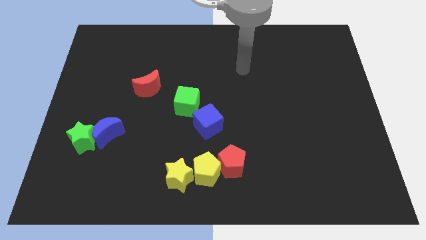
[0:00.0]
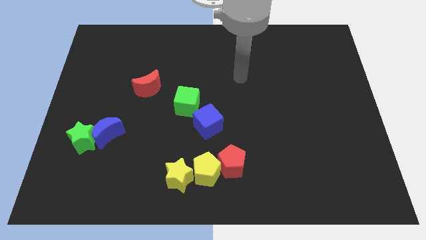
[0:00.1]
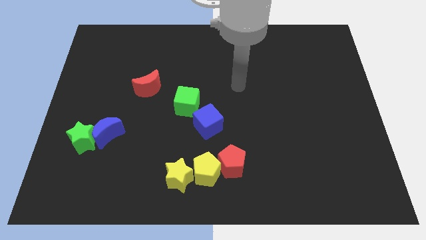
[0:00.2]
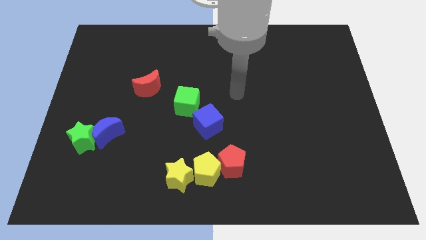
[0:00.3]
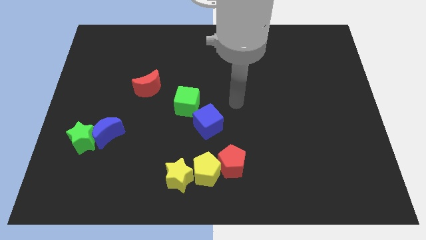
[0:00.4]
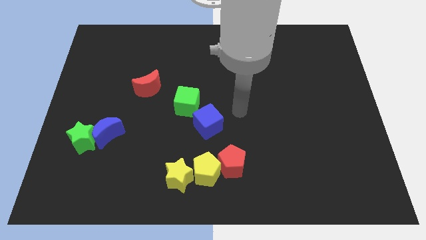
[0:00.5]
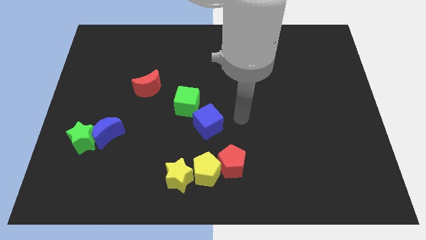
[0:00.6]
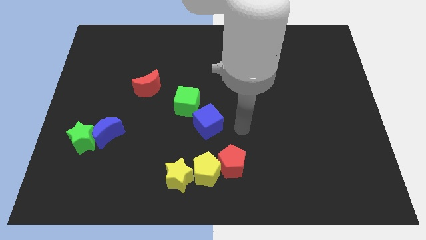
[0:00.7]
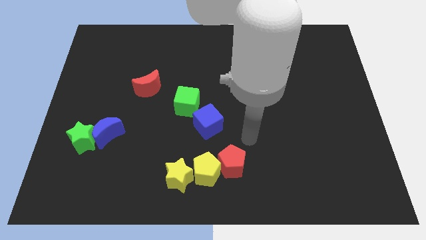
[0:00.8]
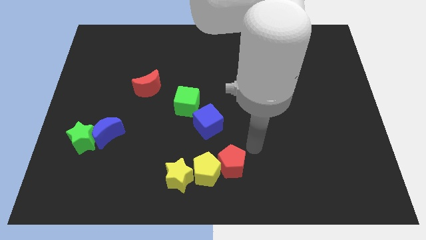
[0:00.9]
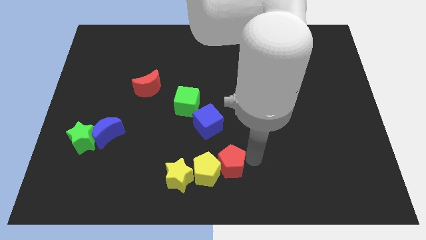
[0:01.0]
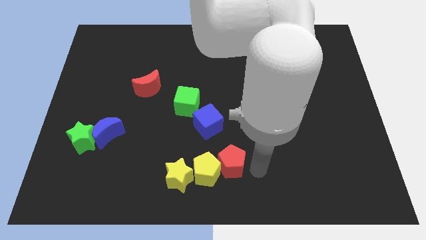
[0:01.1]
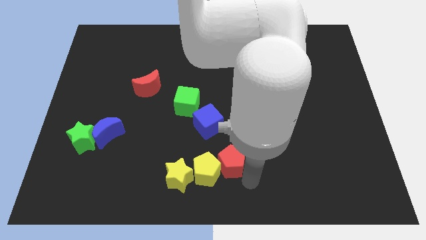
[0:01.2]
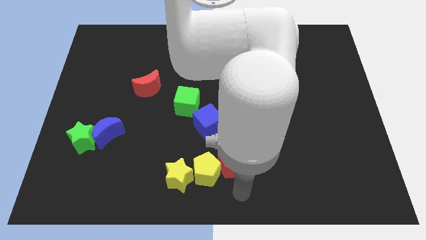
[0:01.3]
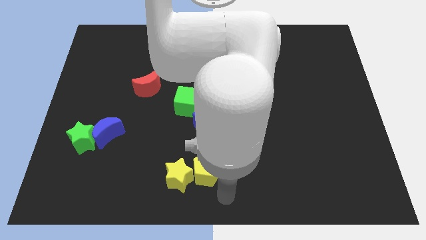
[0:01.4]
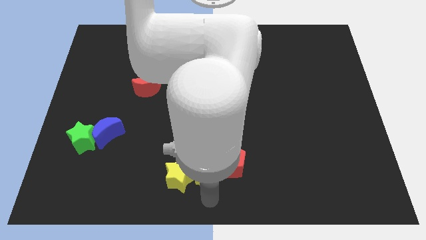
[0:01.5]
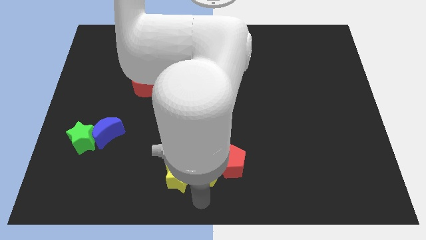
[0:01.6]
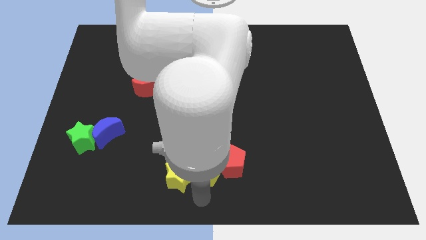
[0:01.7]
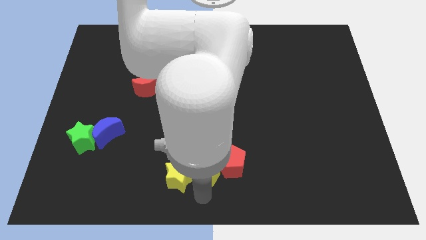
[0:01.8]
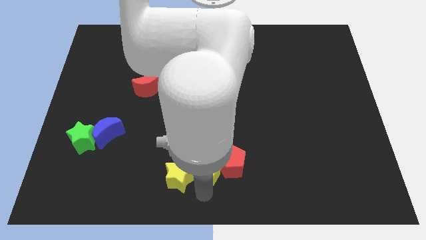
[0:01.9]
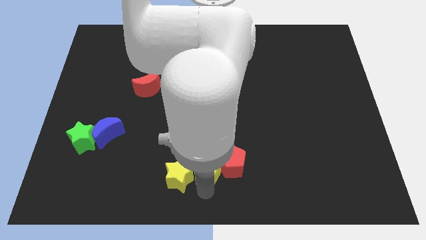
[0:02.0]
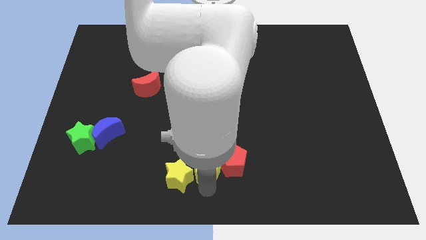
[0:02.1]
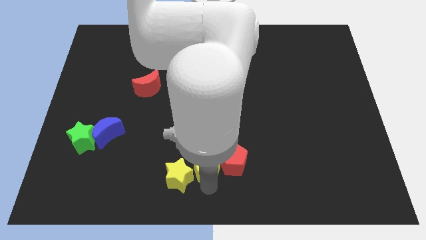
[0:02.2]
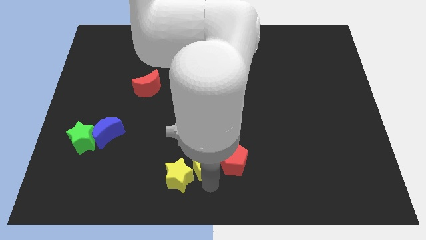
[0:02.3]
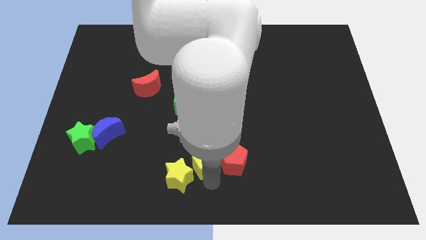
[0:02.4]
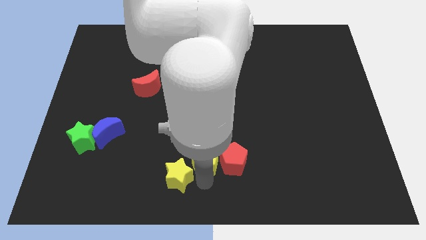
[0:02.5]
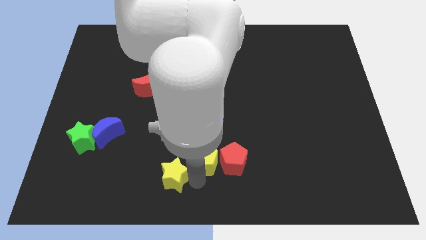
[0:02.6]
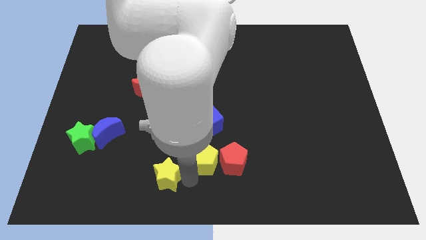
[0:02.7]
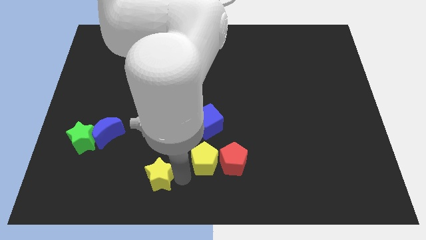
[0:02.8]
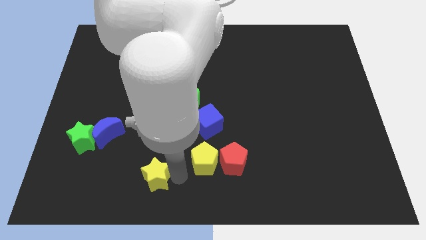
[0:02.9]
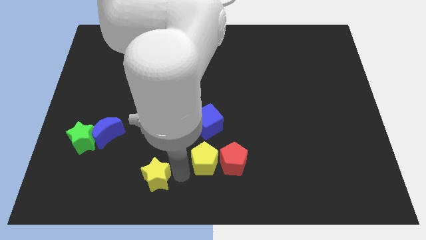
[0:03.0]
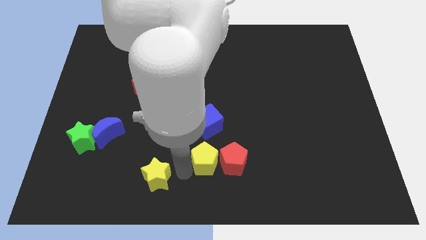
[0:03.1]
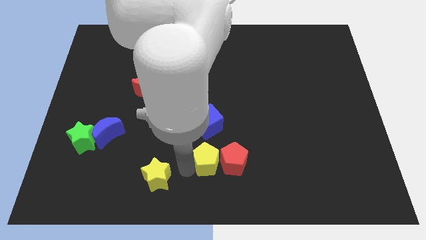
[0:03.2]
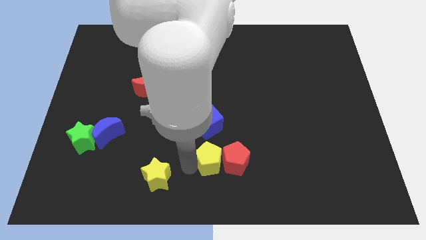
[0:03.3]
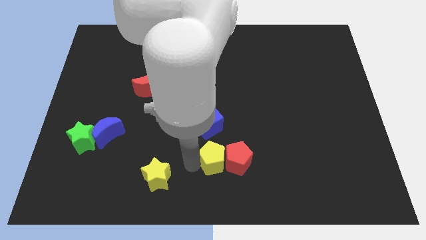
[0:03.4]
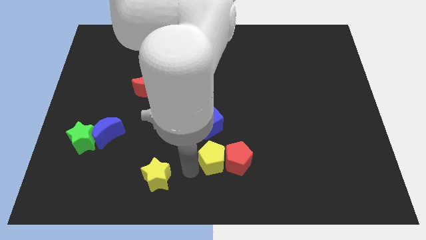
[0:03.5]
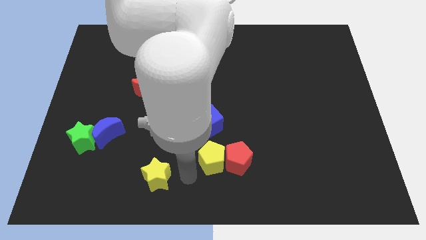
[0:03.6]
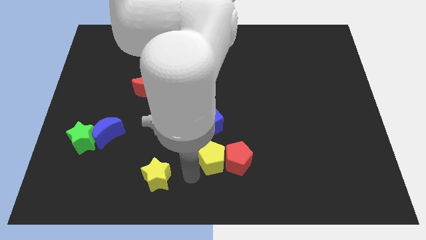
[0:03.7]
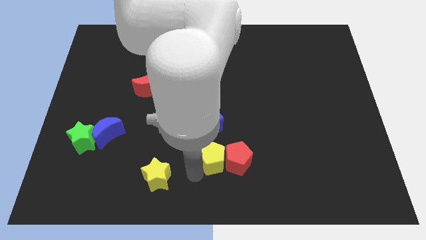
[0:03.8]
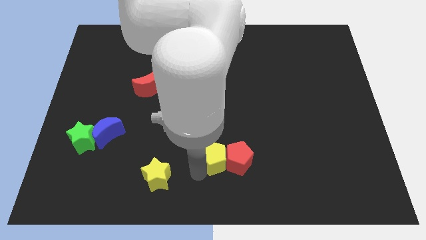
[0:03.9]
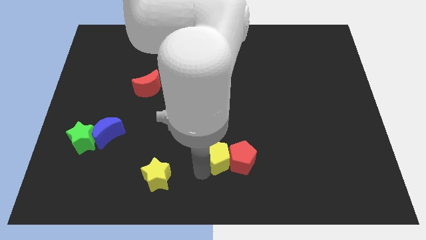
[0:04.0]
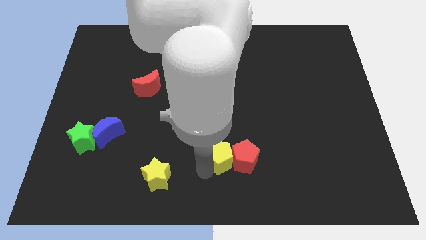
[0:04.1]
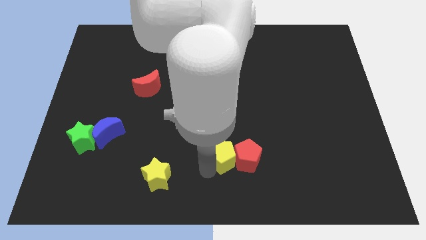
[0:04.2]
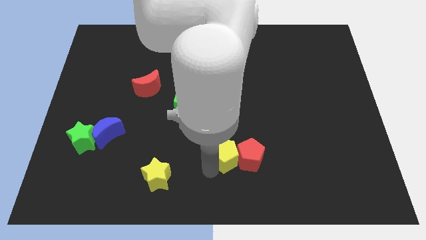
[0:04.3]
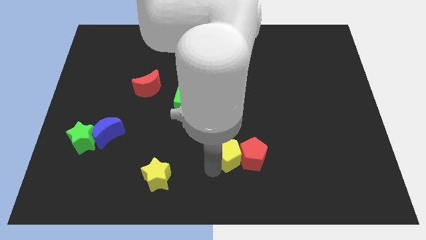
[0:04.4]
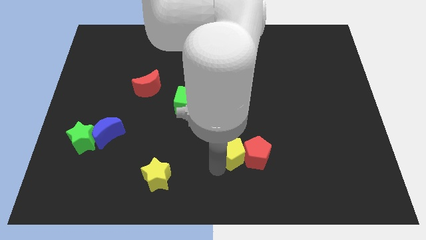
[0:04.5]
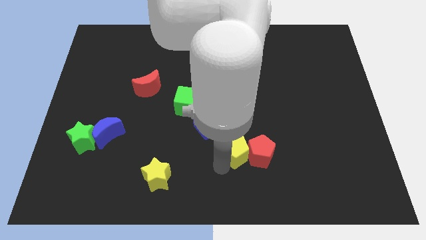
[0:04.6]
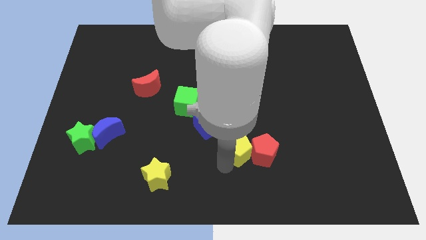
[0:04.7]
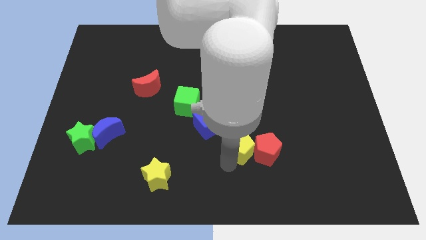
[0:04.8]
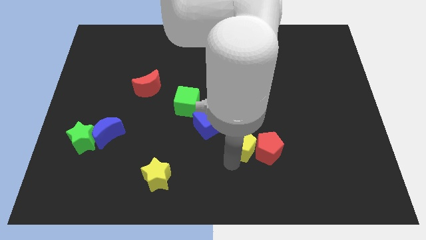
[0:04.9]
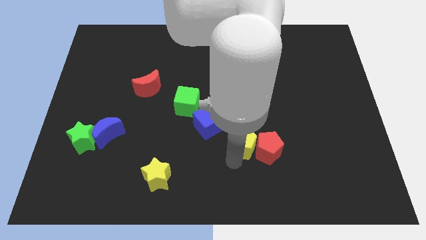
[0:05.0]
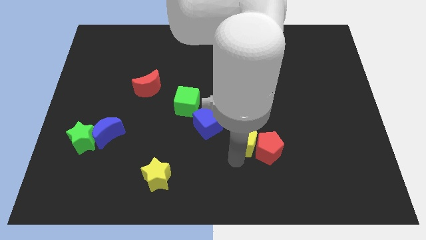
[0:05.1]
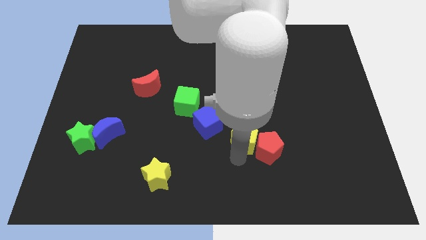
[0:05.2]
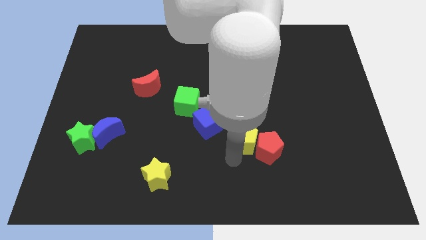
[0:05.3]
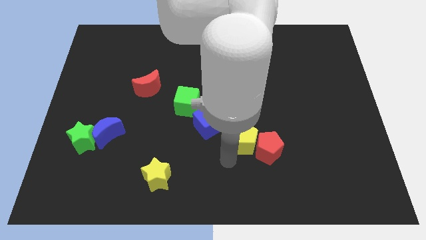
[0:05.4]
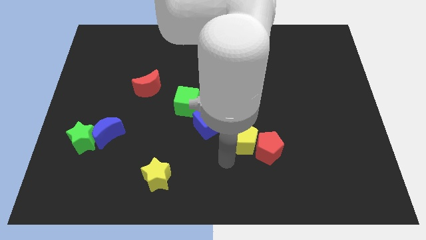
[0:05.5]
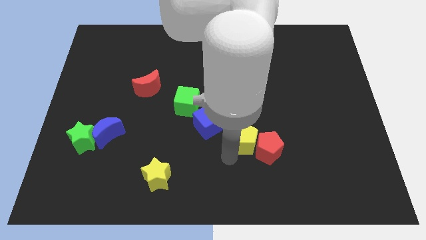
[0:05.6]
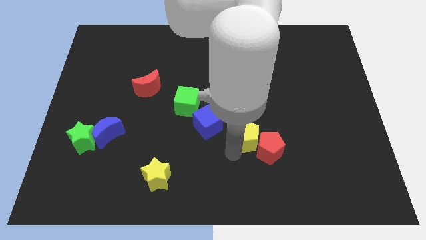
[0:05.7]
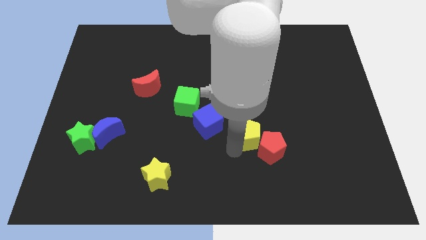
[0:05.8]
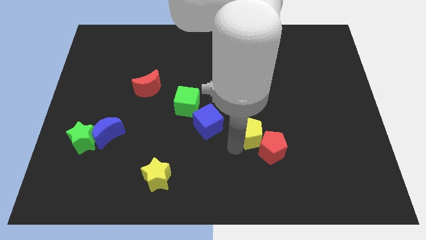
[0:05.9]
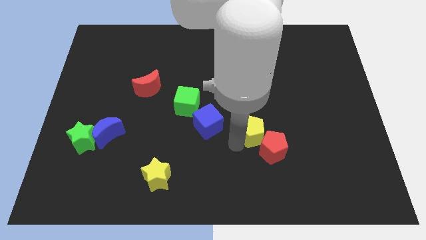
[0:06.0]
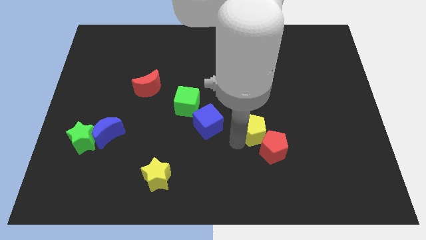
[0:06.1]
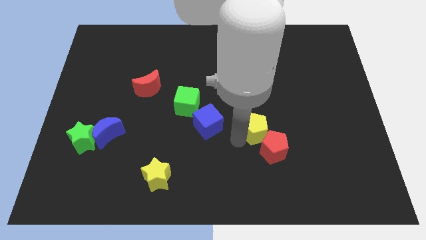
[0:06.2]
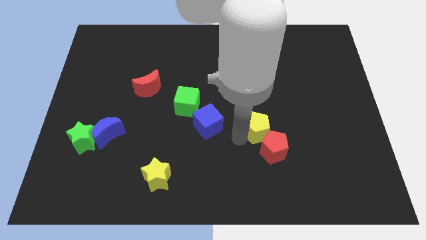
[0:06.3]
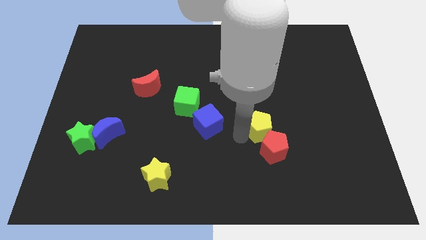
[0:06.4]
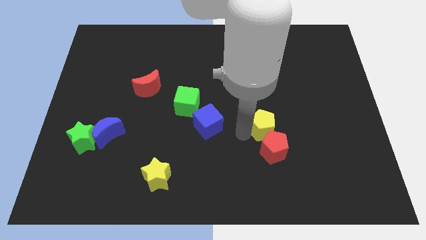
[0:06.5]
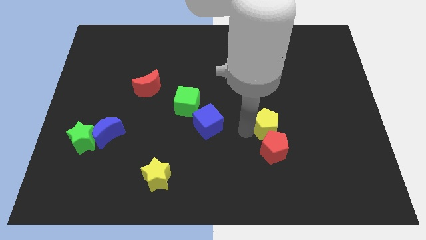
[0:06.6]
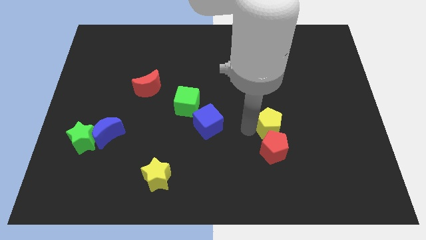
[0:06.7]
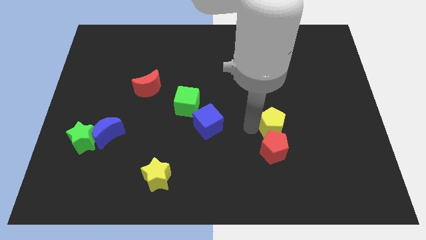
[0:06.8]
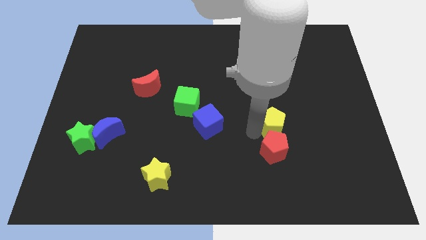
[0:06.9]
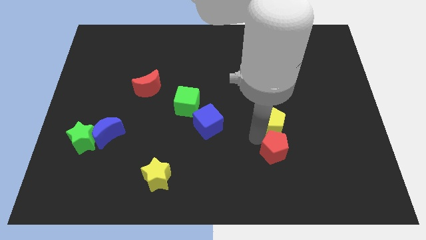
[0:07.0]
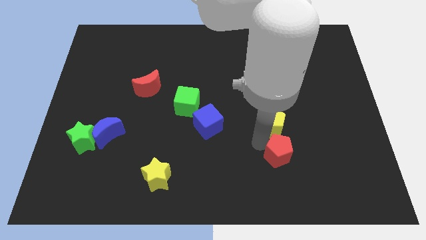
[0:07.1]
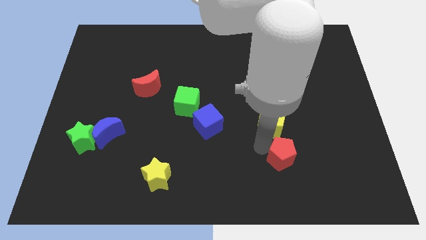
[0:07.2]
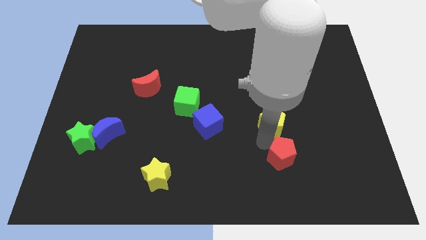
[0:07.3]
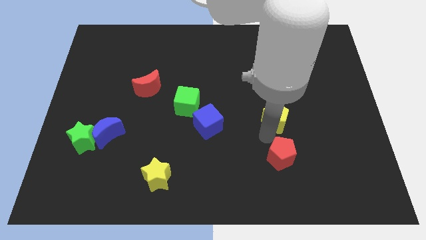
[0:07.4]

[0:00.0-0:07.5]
slide the yellow pentagon diagonally up and to the right

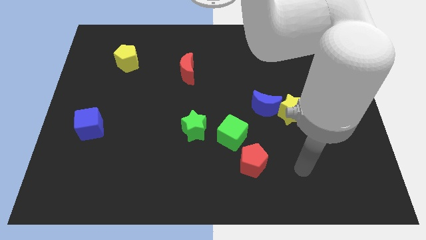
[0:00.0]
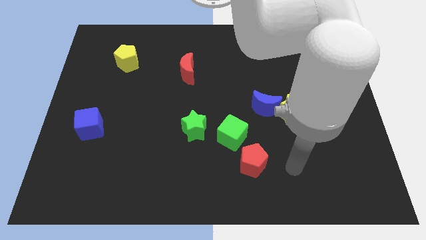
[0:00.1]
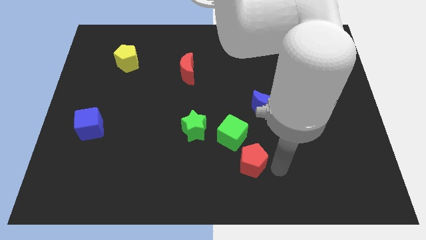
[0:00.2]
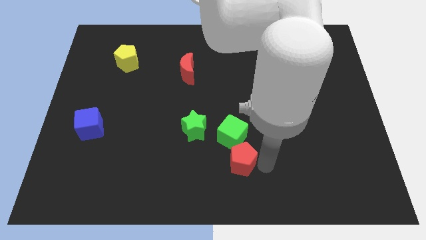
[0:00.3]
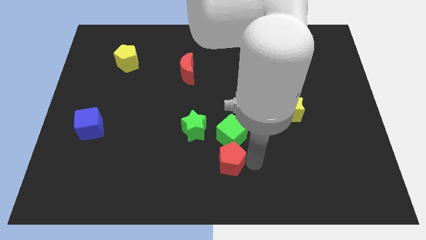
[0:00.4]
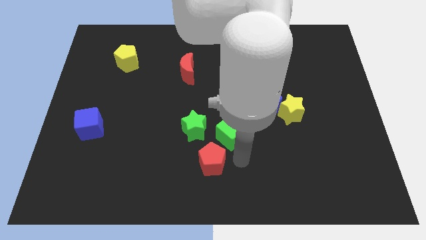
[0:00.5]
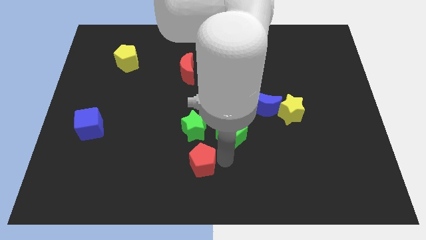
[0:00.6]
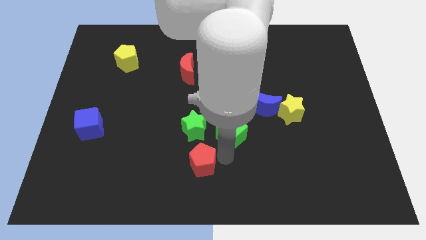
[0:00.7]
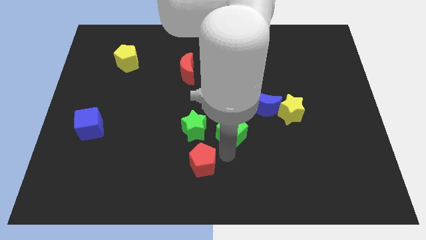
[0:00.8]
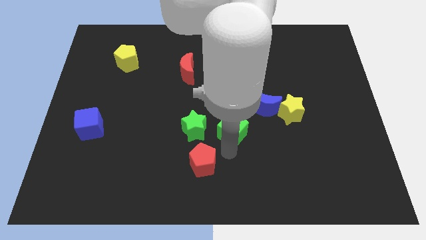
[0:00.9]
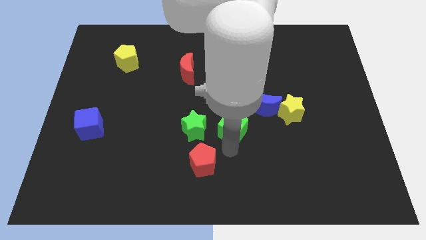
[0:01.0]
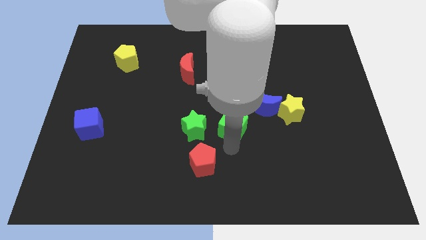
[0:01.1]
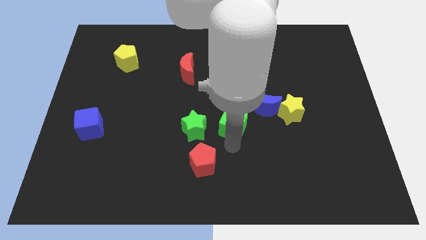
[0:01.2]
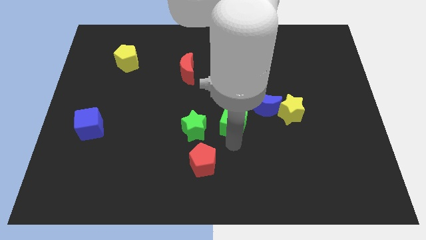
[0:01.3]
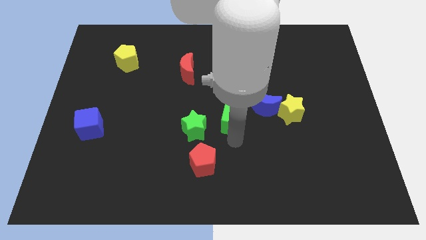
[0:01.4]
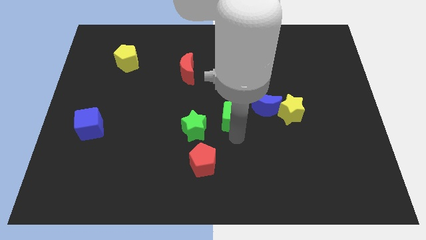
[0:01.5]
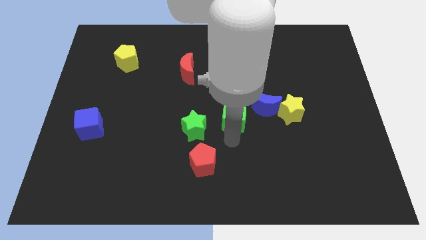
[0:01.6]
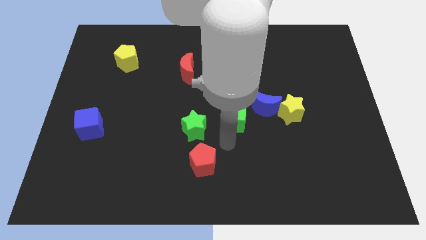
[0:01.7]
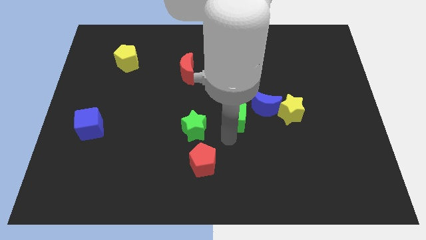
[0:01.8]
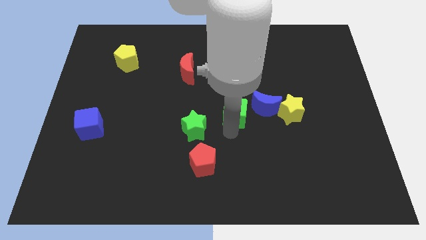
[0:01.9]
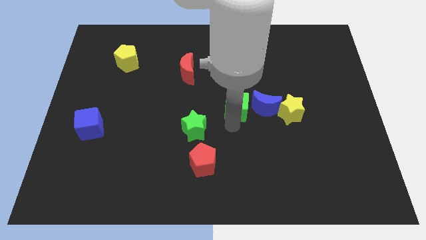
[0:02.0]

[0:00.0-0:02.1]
move the green cube a little up
